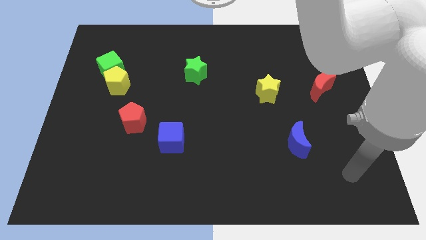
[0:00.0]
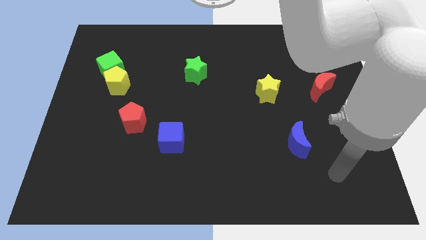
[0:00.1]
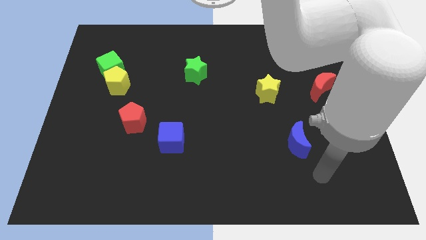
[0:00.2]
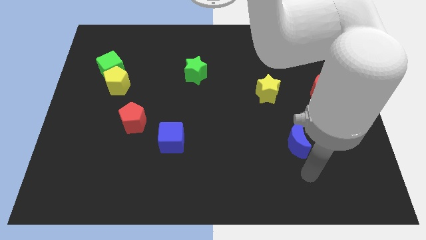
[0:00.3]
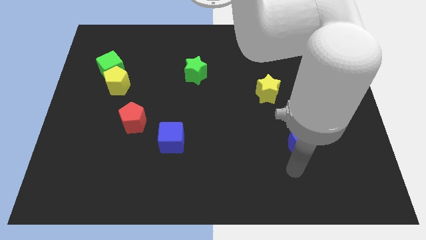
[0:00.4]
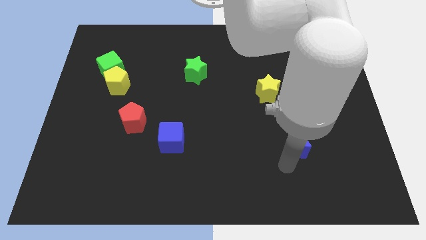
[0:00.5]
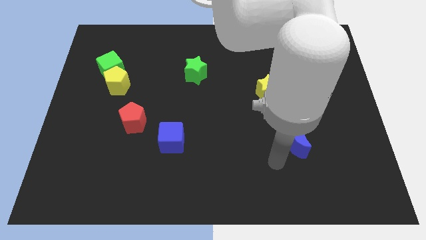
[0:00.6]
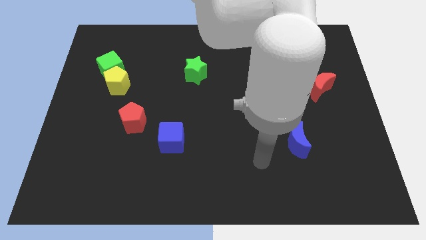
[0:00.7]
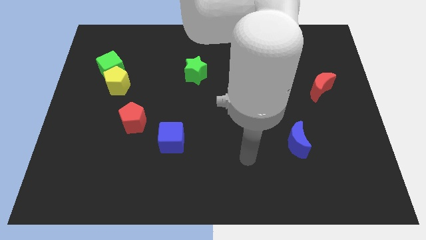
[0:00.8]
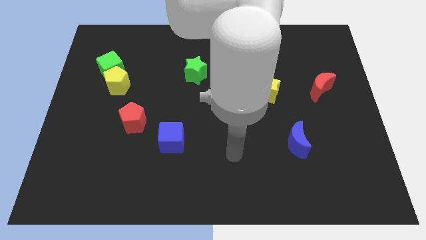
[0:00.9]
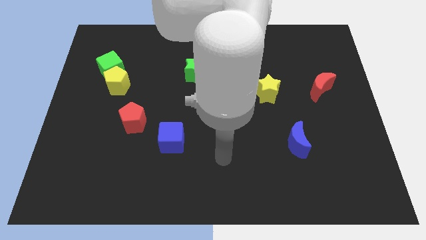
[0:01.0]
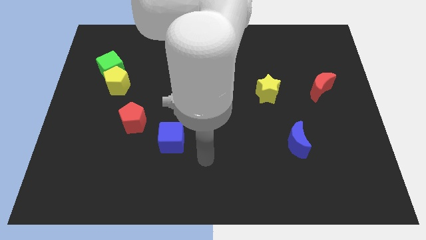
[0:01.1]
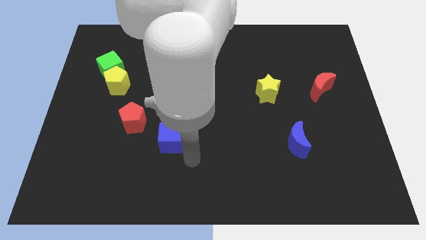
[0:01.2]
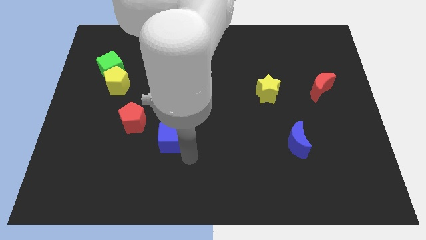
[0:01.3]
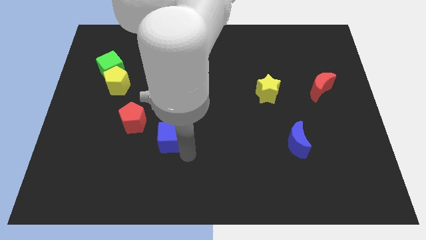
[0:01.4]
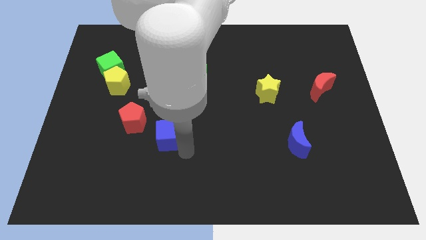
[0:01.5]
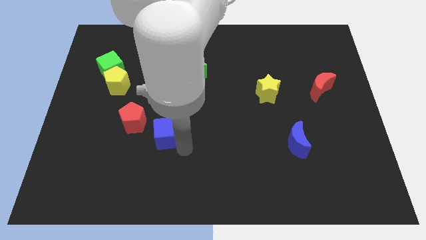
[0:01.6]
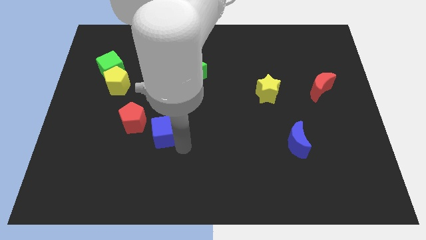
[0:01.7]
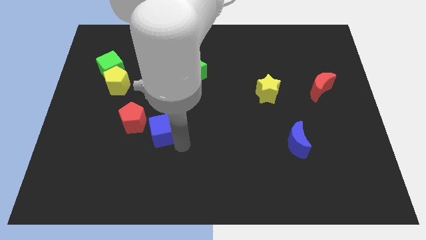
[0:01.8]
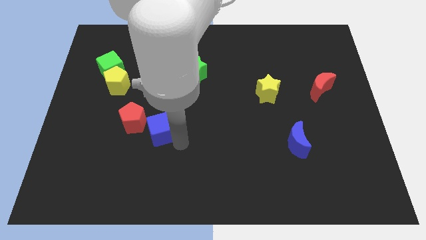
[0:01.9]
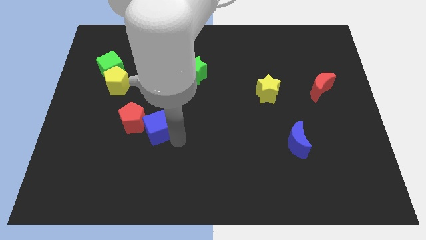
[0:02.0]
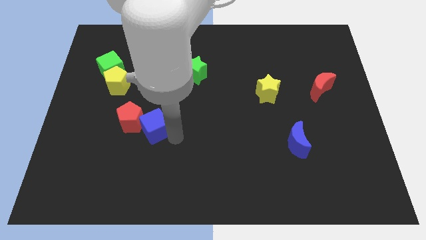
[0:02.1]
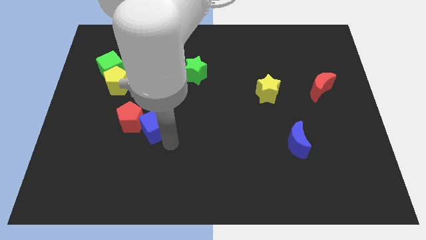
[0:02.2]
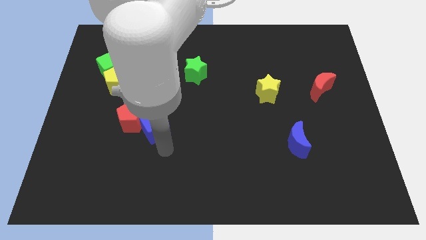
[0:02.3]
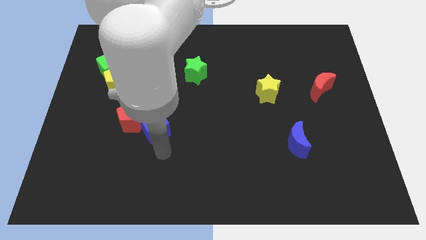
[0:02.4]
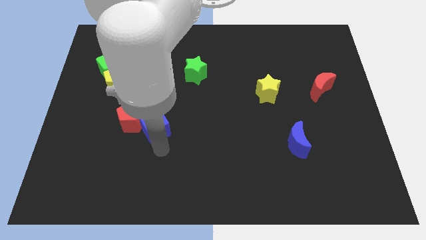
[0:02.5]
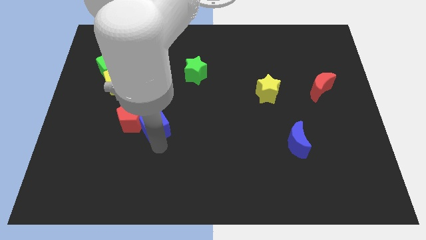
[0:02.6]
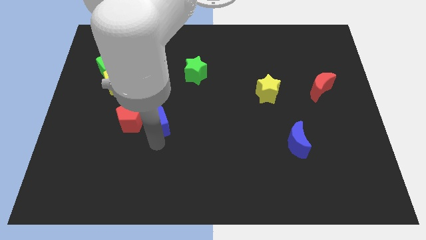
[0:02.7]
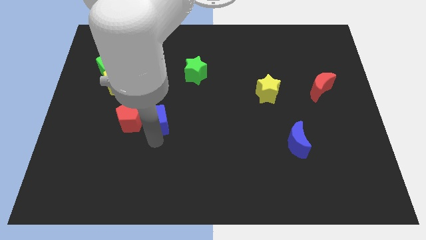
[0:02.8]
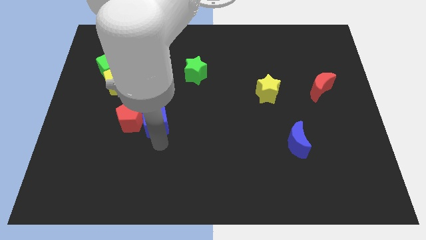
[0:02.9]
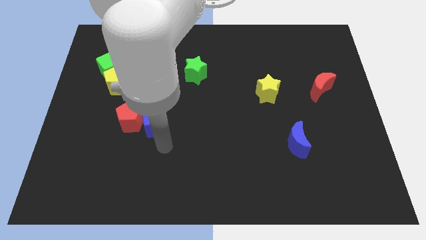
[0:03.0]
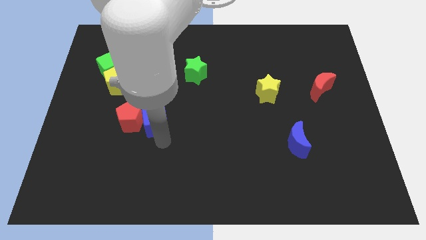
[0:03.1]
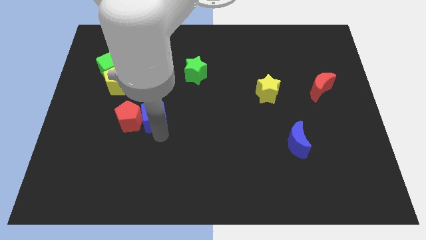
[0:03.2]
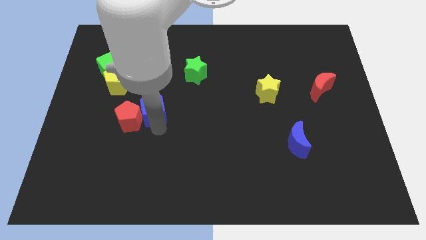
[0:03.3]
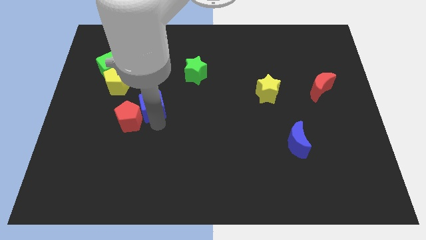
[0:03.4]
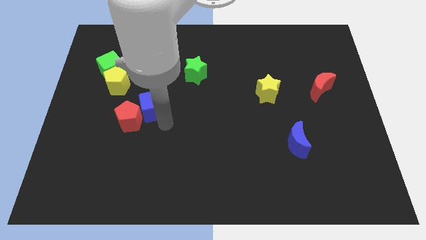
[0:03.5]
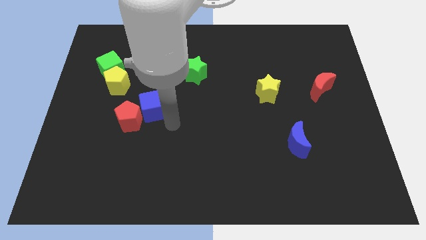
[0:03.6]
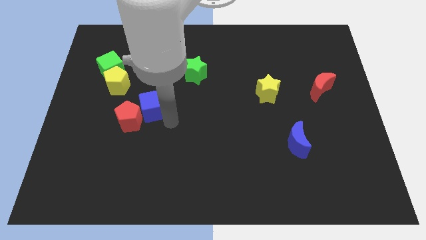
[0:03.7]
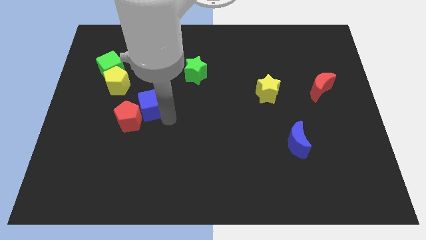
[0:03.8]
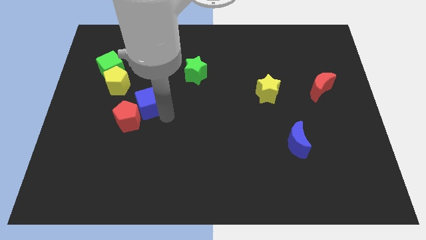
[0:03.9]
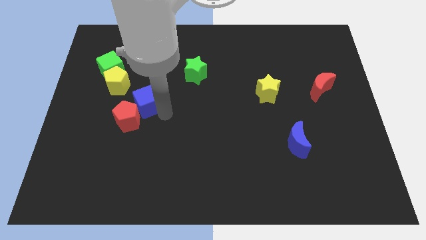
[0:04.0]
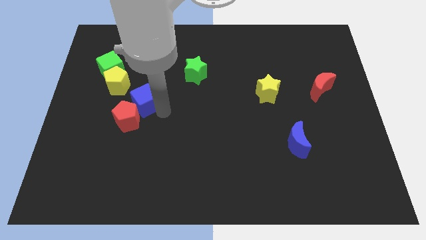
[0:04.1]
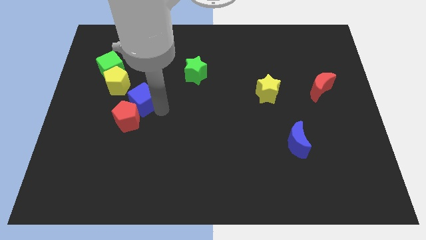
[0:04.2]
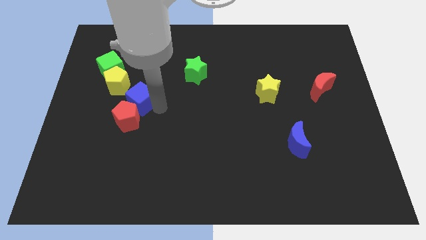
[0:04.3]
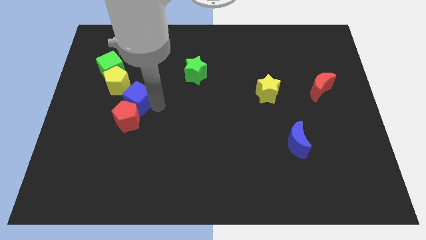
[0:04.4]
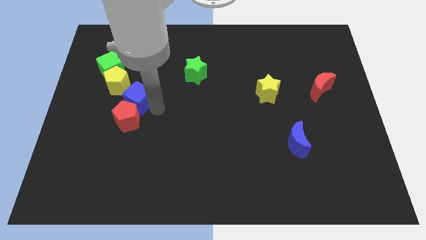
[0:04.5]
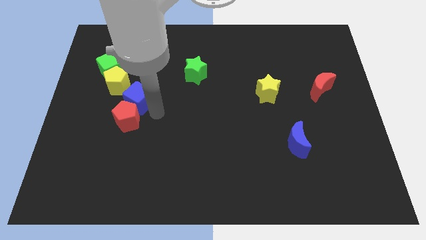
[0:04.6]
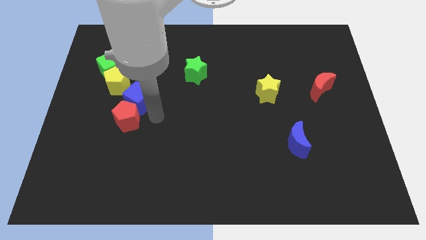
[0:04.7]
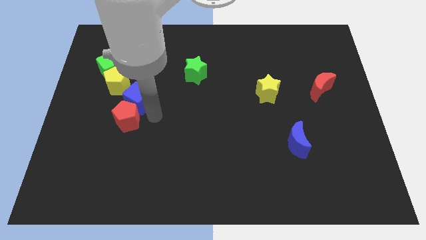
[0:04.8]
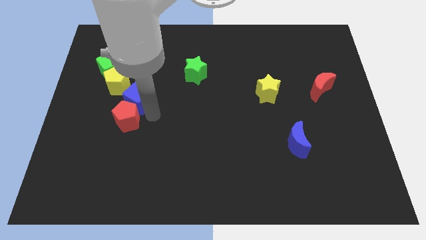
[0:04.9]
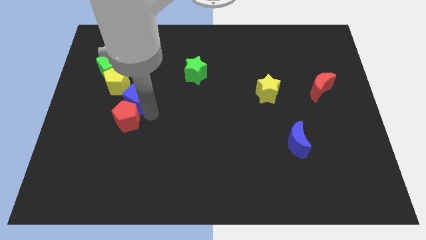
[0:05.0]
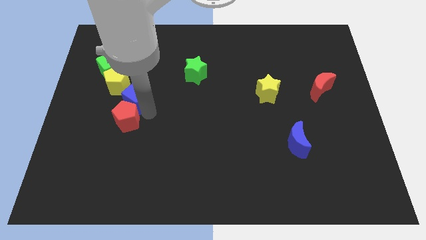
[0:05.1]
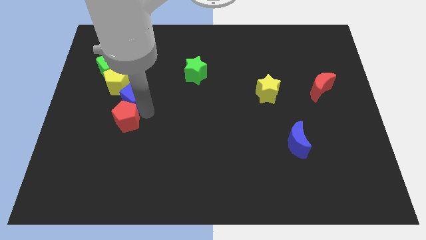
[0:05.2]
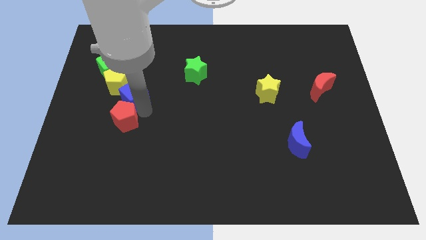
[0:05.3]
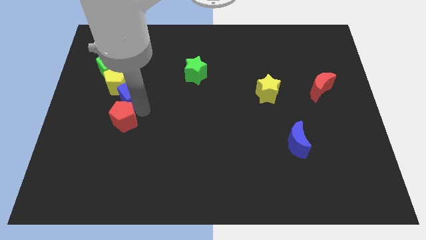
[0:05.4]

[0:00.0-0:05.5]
push the blue cube to the yellow pentagon

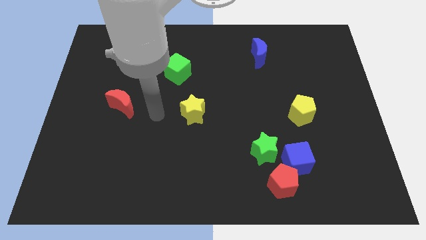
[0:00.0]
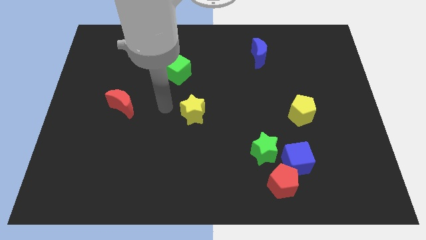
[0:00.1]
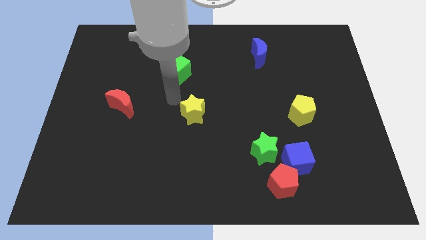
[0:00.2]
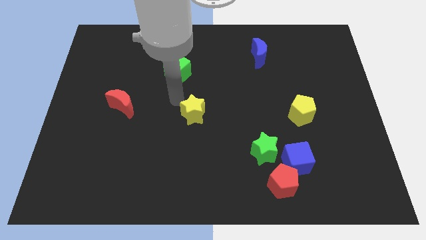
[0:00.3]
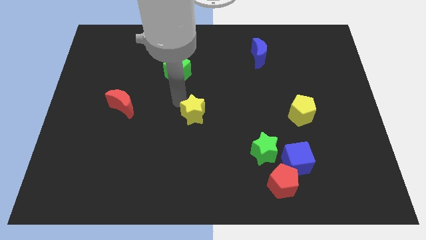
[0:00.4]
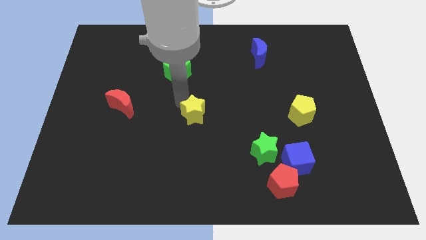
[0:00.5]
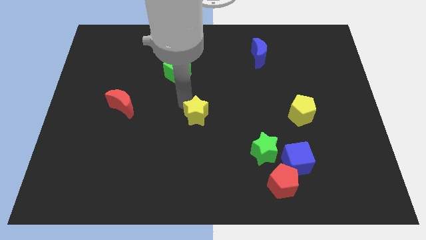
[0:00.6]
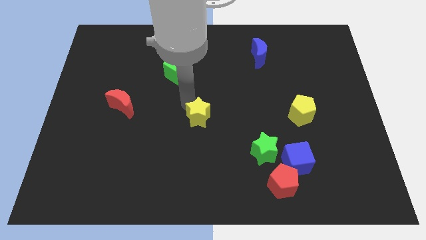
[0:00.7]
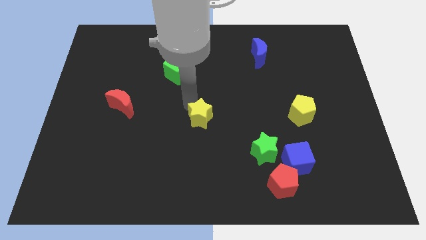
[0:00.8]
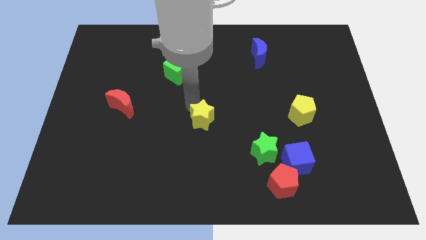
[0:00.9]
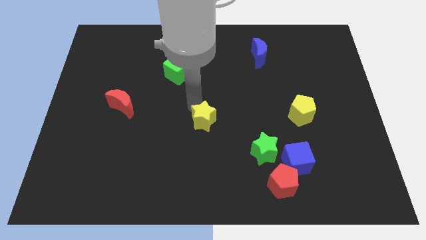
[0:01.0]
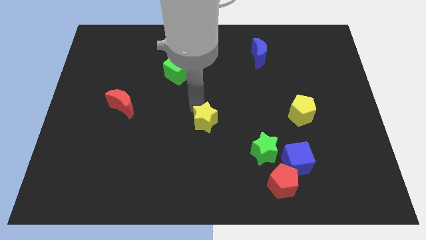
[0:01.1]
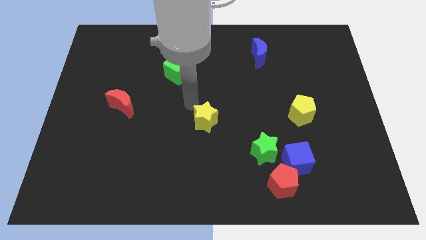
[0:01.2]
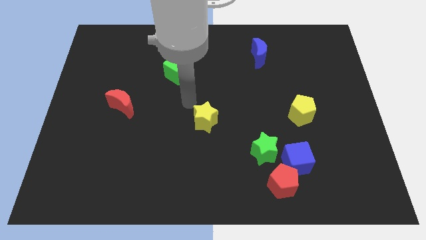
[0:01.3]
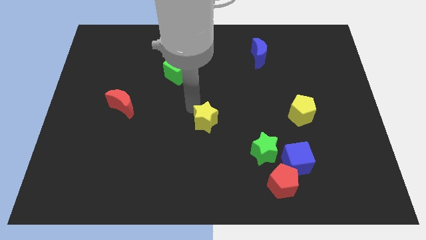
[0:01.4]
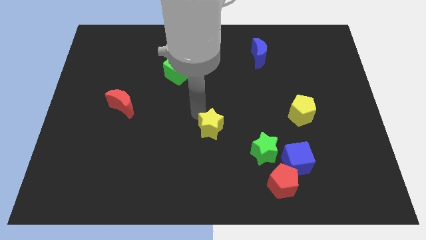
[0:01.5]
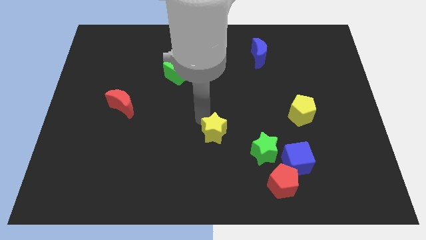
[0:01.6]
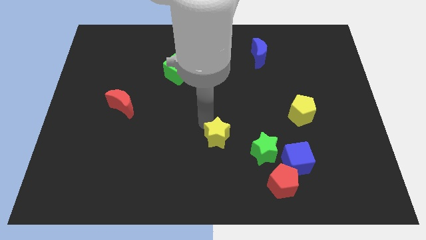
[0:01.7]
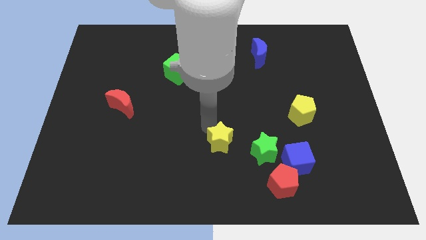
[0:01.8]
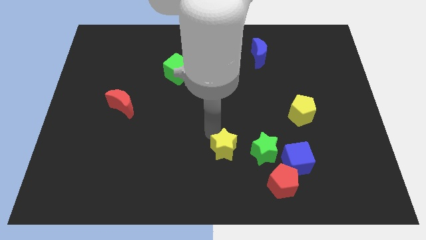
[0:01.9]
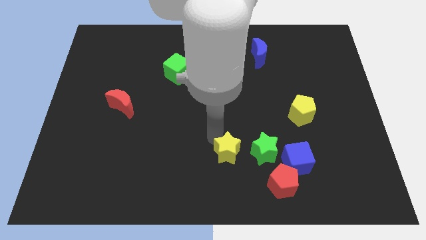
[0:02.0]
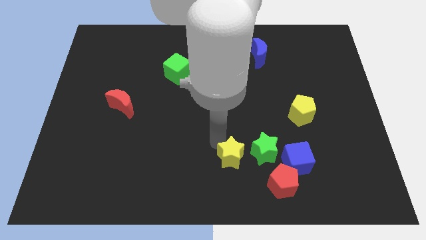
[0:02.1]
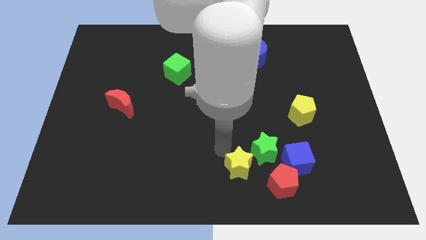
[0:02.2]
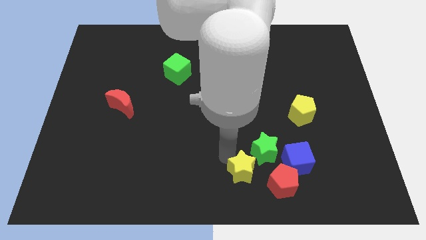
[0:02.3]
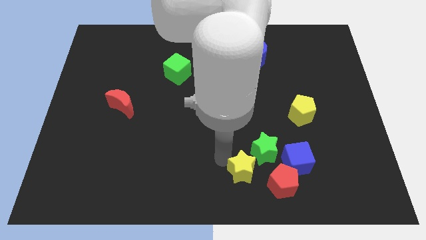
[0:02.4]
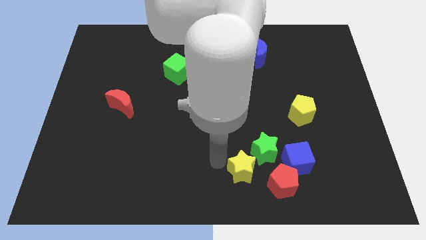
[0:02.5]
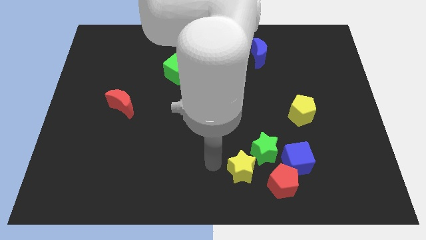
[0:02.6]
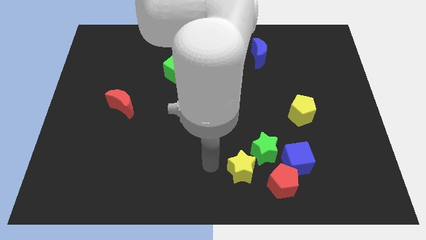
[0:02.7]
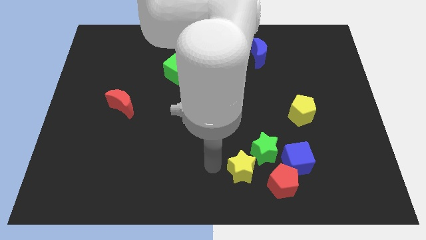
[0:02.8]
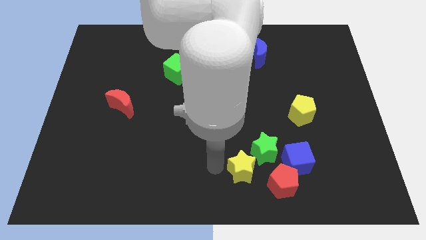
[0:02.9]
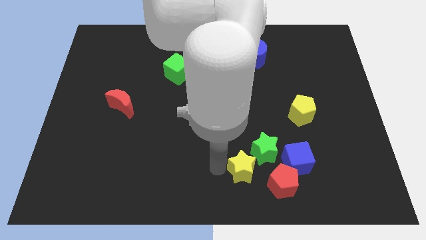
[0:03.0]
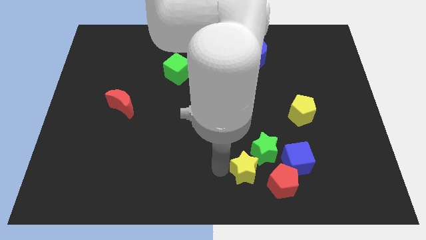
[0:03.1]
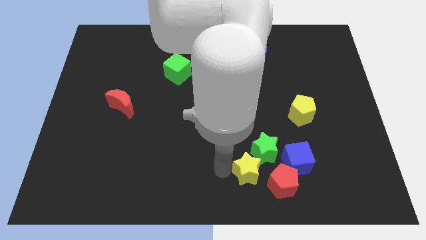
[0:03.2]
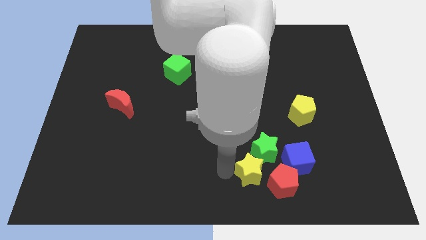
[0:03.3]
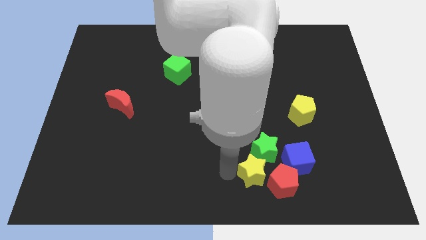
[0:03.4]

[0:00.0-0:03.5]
put the yellow star to the red pentagon
